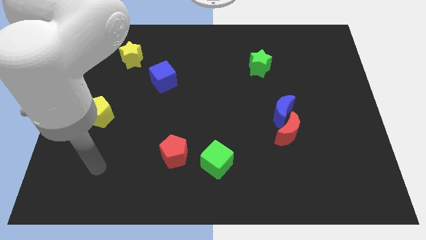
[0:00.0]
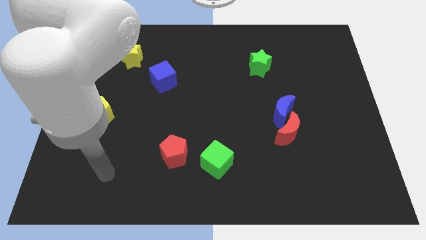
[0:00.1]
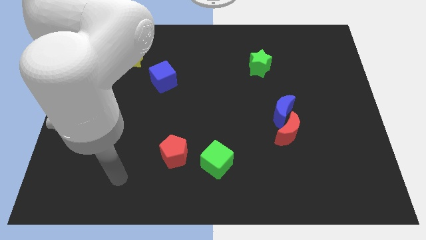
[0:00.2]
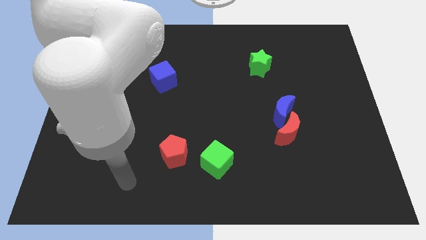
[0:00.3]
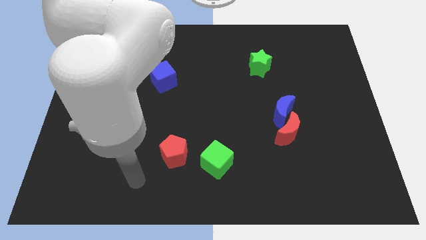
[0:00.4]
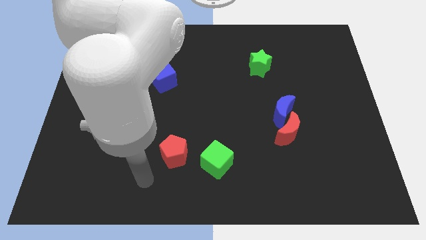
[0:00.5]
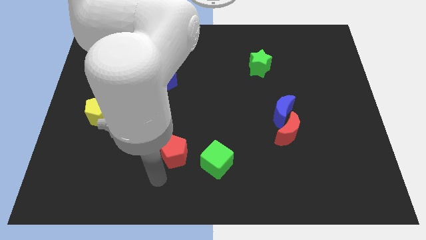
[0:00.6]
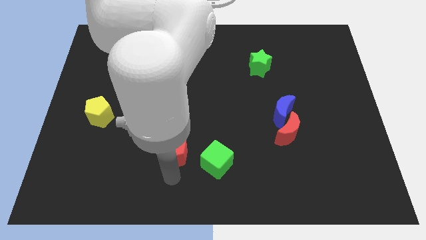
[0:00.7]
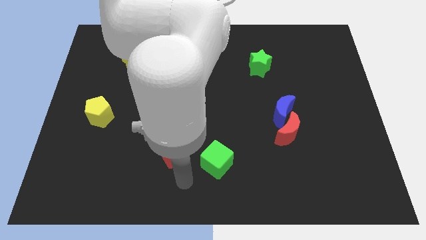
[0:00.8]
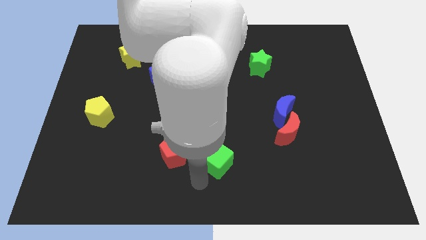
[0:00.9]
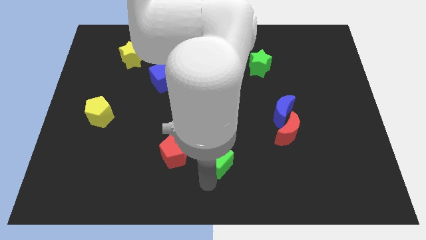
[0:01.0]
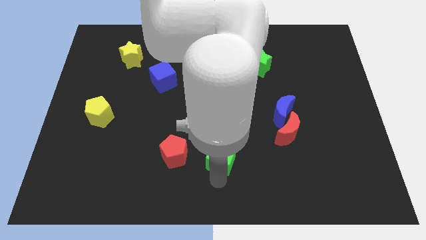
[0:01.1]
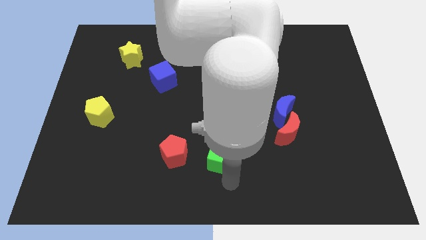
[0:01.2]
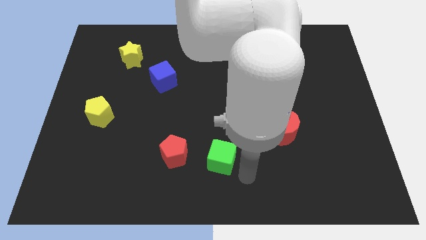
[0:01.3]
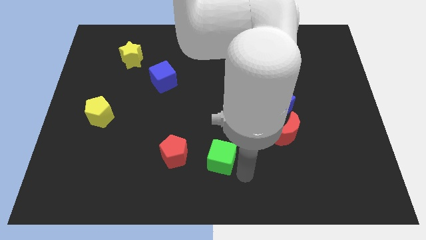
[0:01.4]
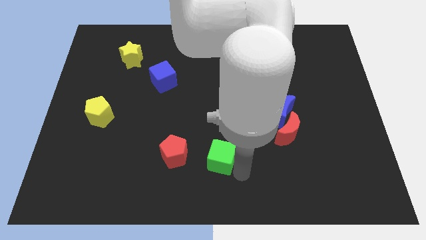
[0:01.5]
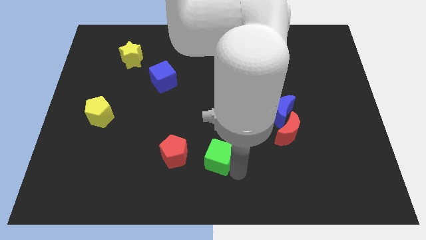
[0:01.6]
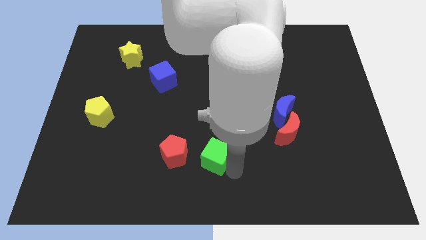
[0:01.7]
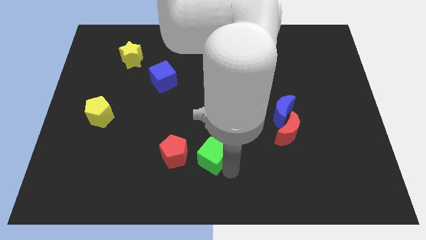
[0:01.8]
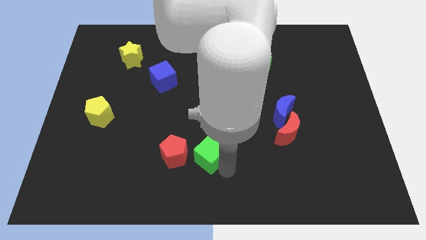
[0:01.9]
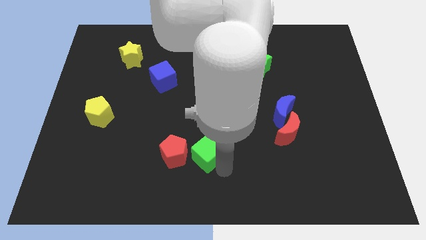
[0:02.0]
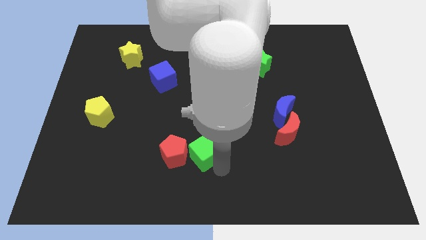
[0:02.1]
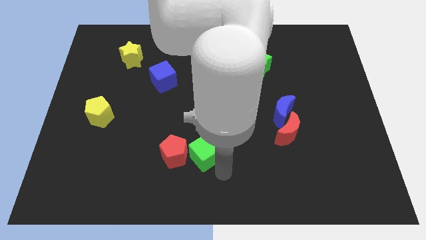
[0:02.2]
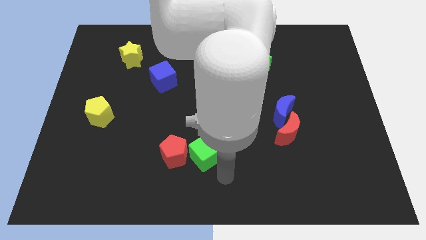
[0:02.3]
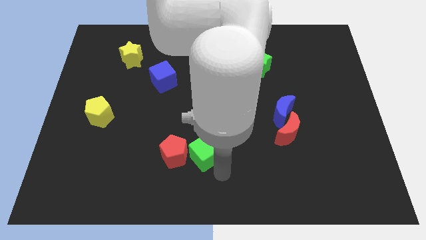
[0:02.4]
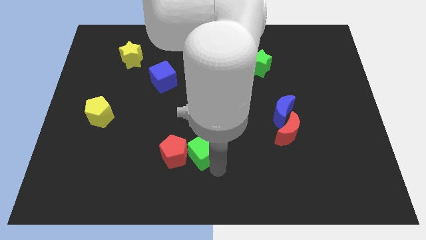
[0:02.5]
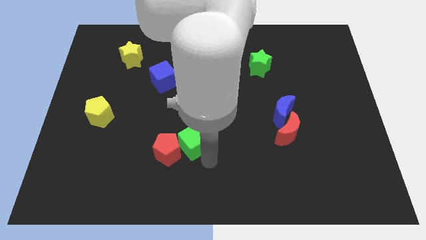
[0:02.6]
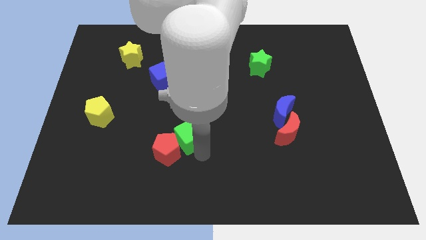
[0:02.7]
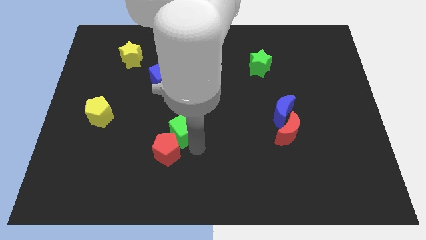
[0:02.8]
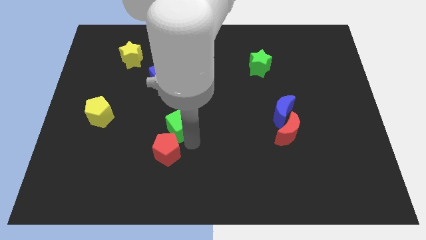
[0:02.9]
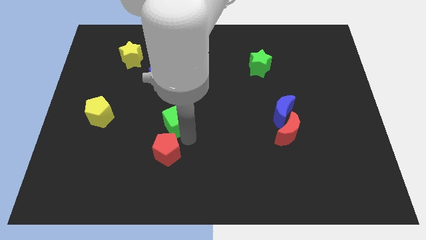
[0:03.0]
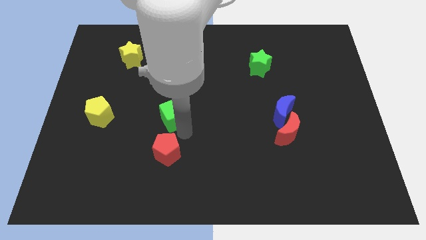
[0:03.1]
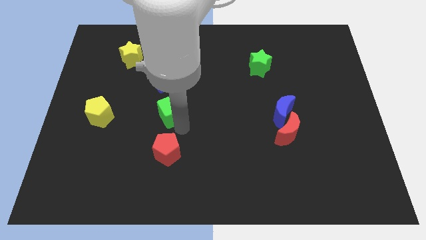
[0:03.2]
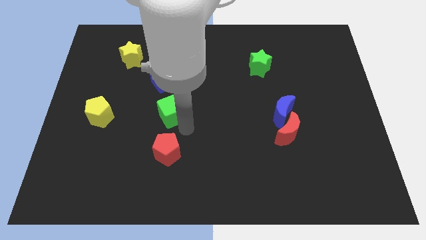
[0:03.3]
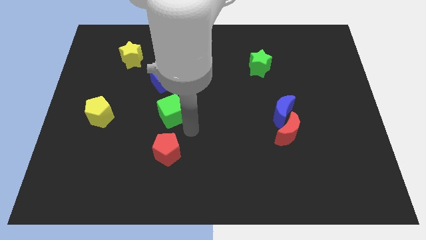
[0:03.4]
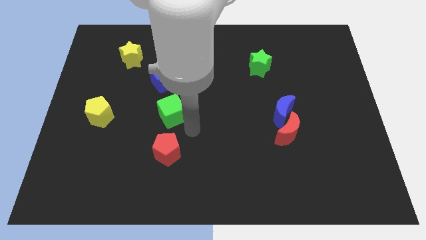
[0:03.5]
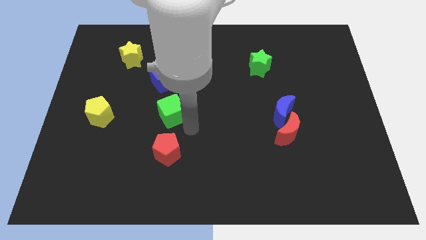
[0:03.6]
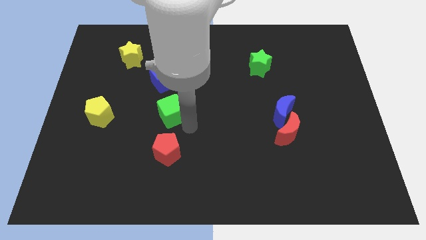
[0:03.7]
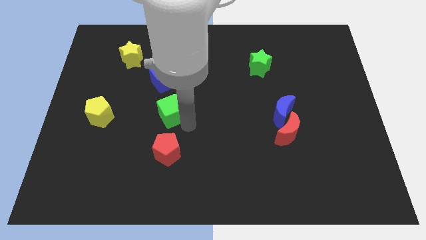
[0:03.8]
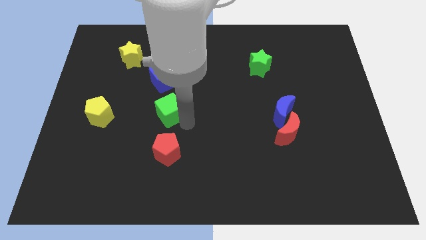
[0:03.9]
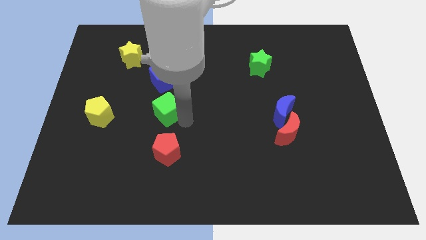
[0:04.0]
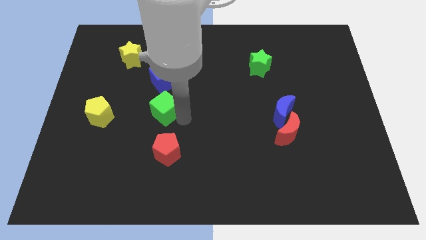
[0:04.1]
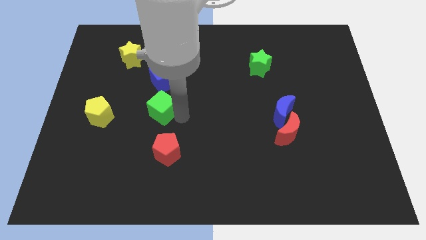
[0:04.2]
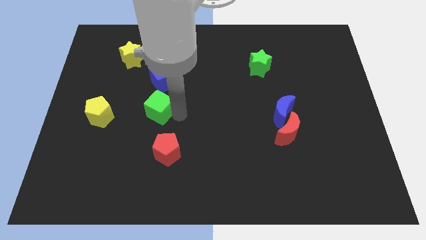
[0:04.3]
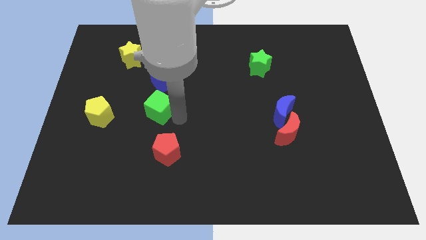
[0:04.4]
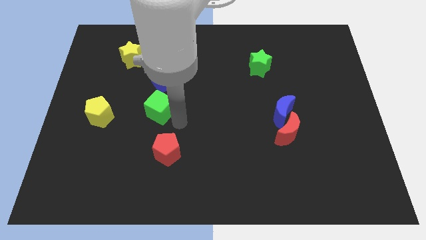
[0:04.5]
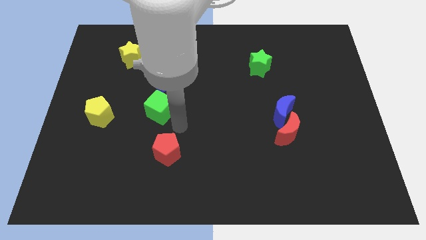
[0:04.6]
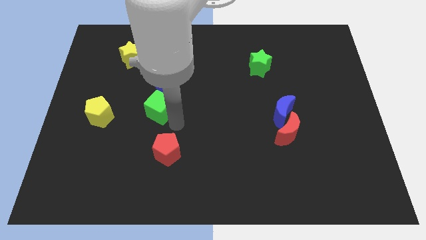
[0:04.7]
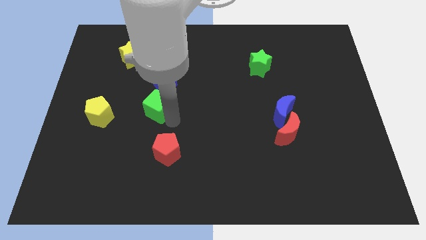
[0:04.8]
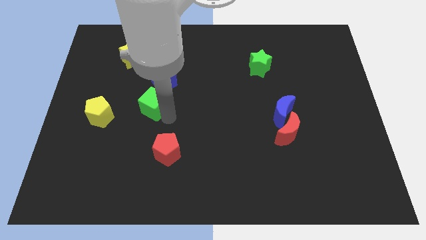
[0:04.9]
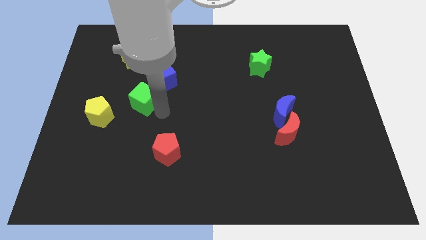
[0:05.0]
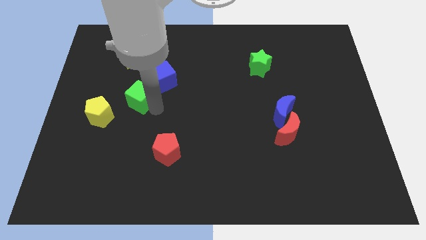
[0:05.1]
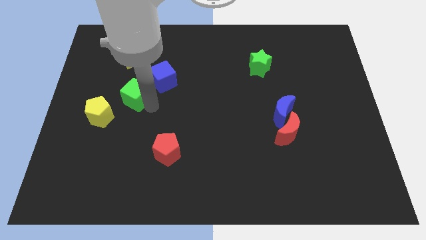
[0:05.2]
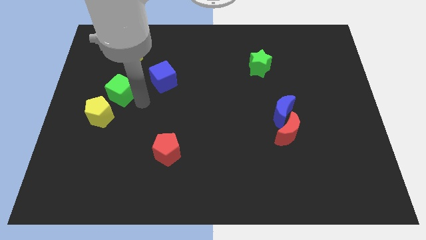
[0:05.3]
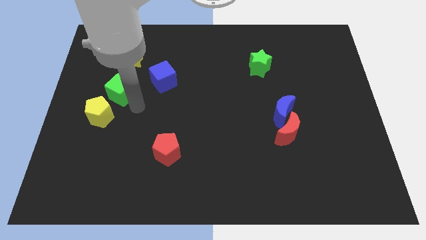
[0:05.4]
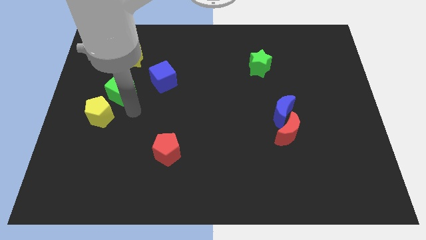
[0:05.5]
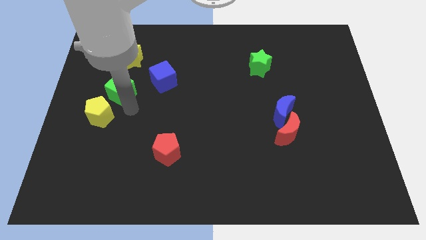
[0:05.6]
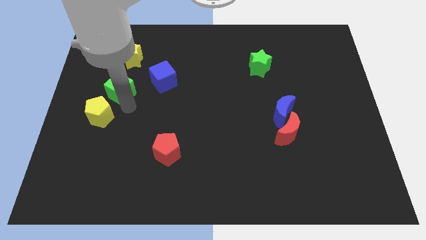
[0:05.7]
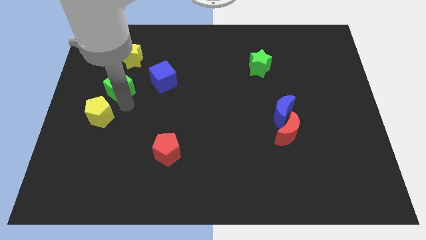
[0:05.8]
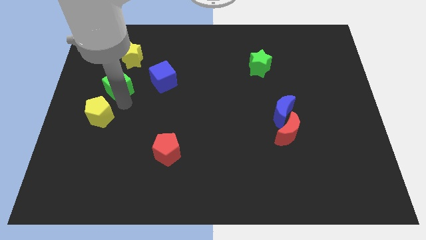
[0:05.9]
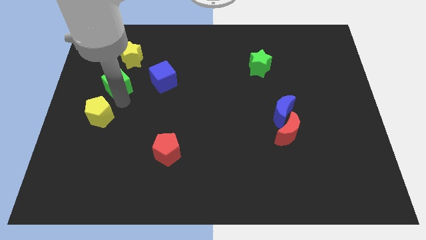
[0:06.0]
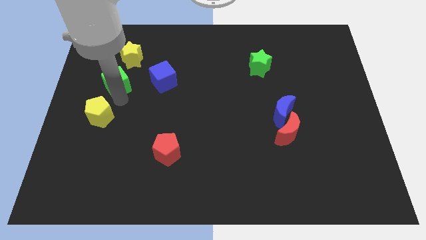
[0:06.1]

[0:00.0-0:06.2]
push the green cube to the bottom left side of the yellow star
